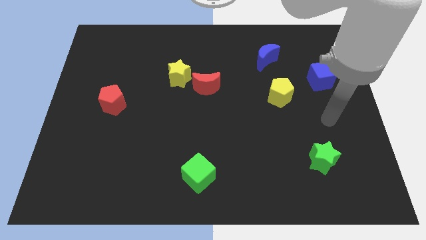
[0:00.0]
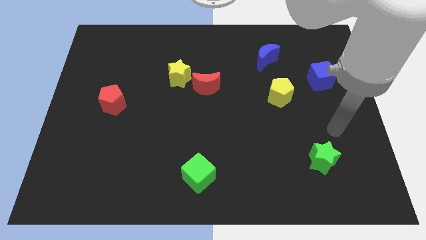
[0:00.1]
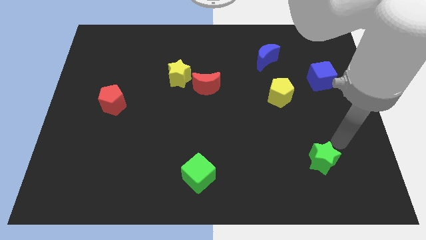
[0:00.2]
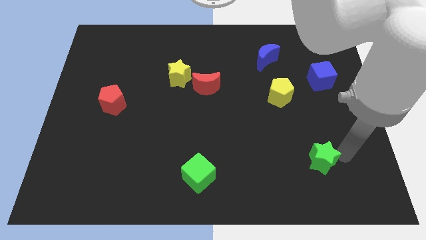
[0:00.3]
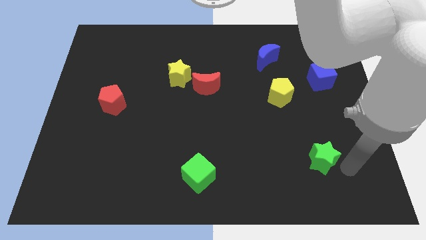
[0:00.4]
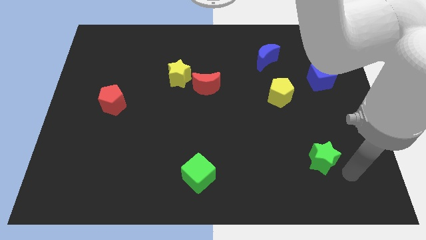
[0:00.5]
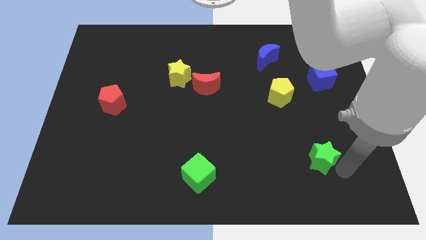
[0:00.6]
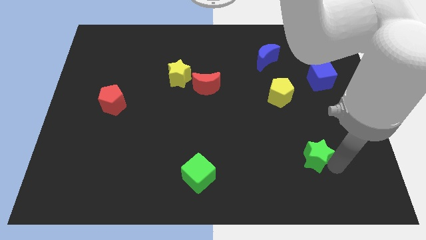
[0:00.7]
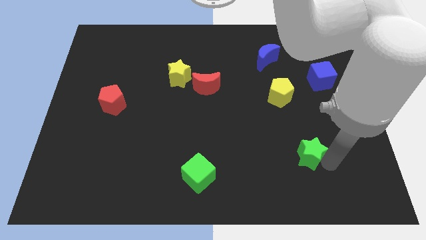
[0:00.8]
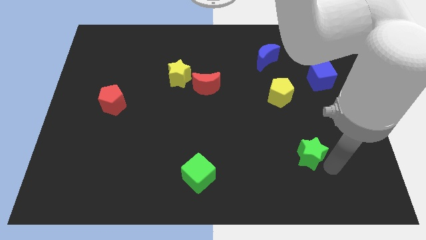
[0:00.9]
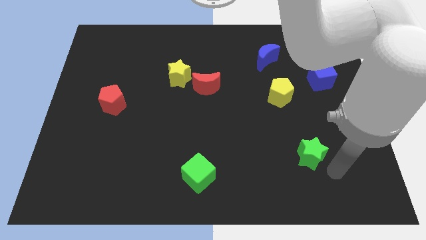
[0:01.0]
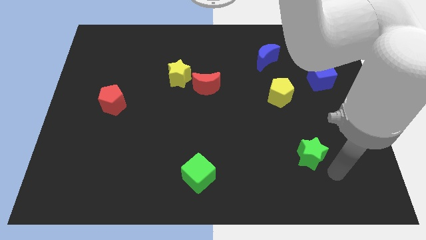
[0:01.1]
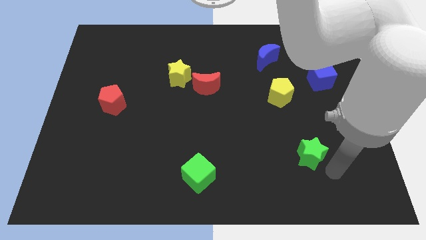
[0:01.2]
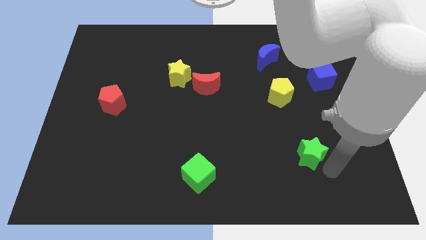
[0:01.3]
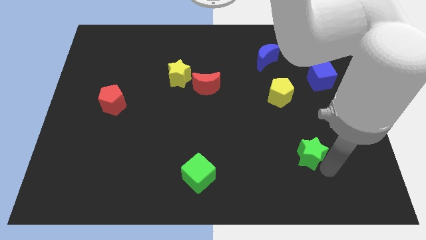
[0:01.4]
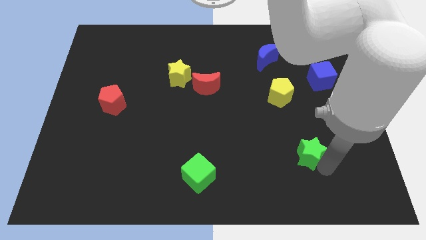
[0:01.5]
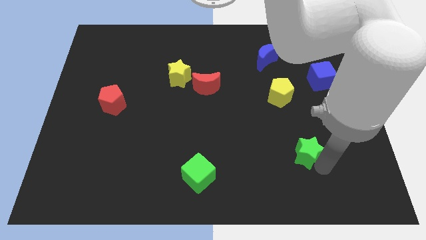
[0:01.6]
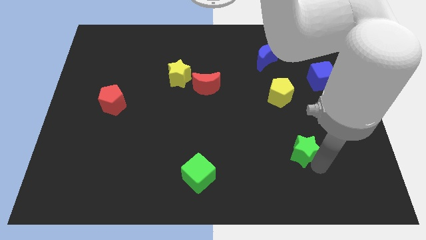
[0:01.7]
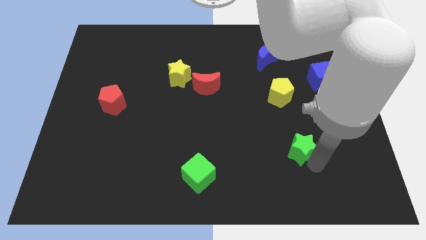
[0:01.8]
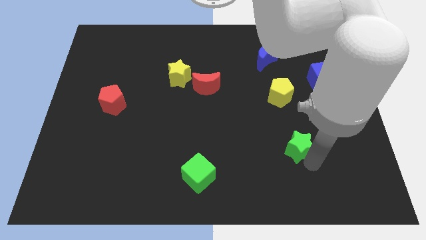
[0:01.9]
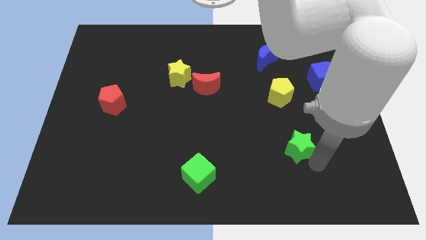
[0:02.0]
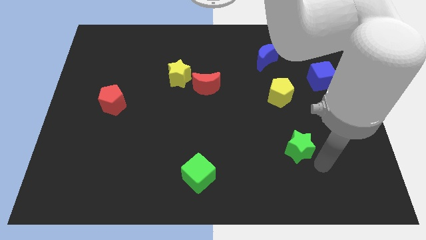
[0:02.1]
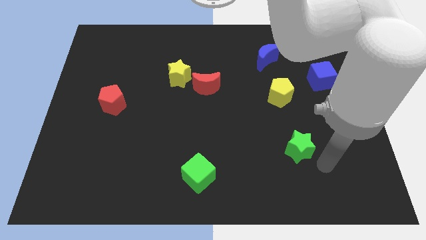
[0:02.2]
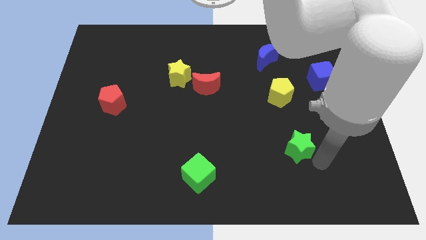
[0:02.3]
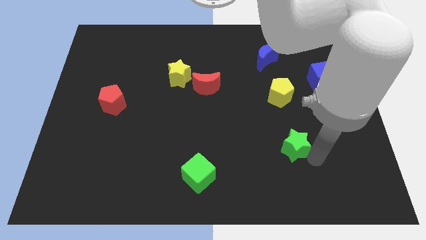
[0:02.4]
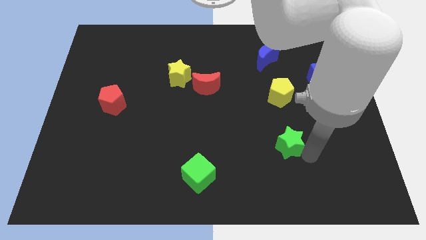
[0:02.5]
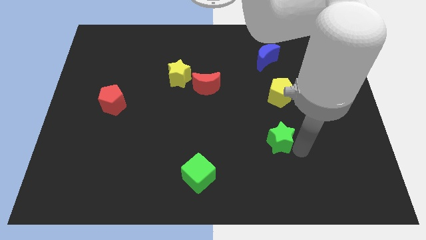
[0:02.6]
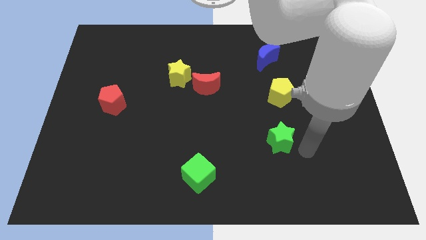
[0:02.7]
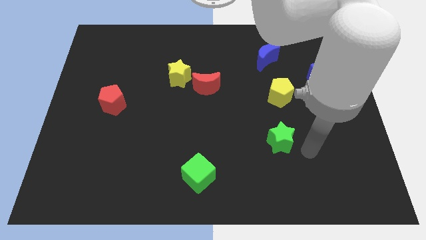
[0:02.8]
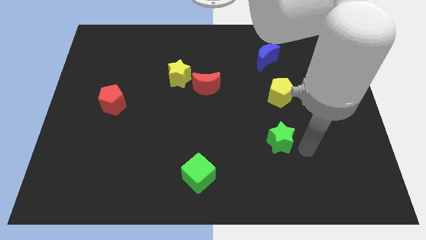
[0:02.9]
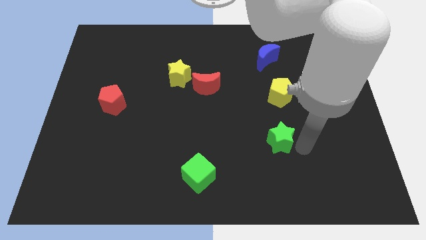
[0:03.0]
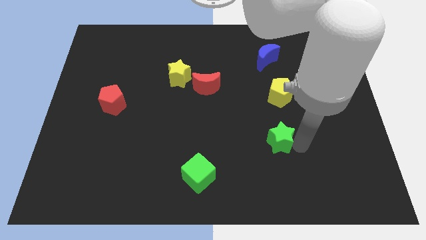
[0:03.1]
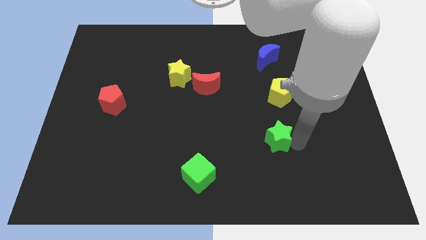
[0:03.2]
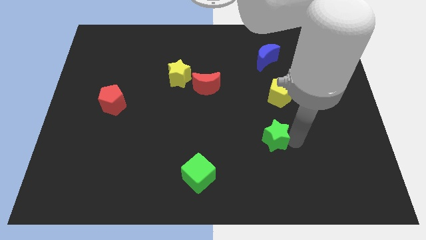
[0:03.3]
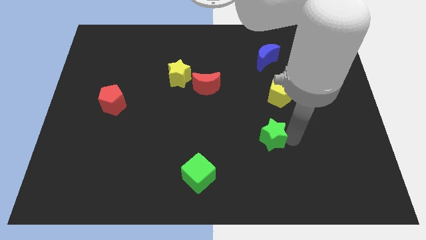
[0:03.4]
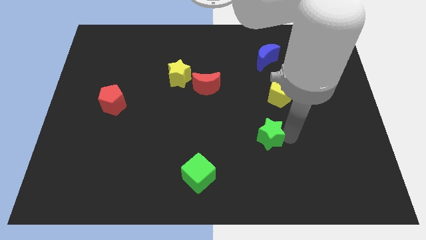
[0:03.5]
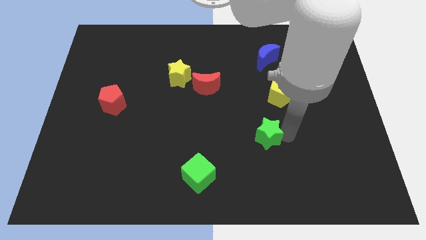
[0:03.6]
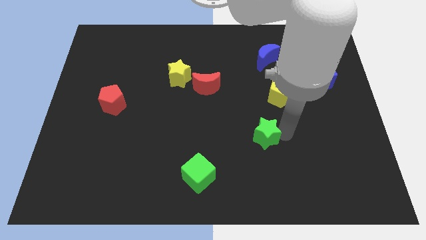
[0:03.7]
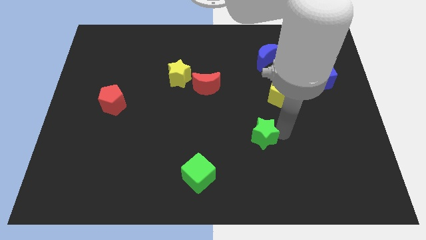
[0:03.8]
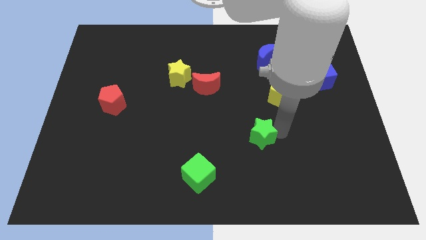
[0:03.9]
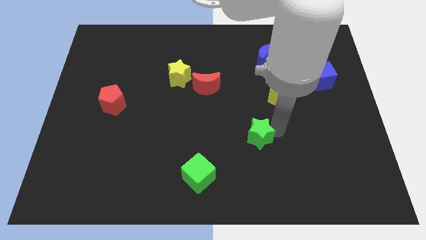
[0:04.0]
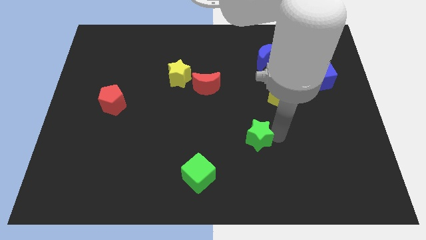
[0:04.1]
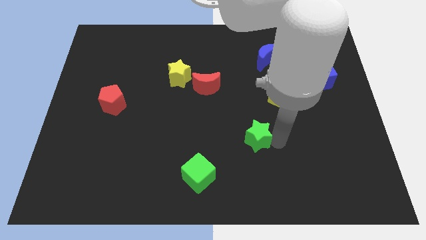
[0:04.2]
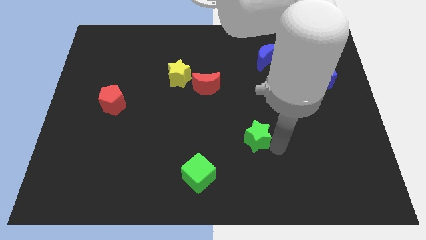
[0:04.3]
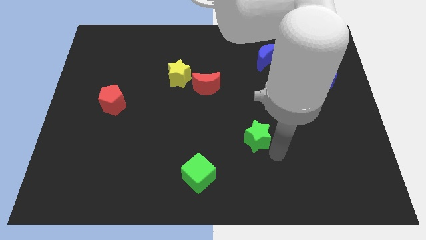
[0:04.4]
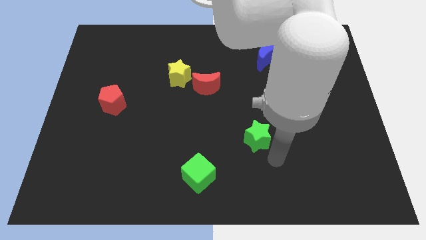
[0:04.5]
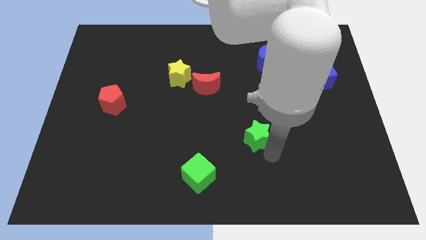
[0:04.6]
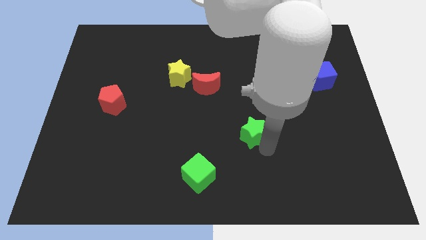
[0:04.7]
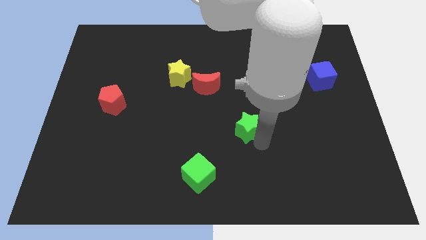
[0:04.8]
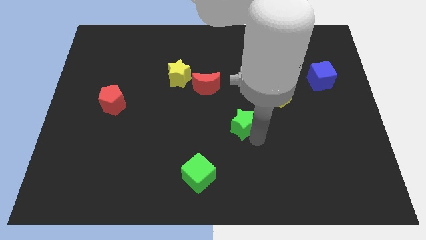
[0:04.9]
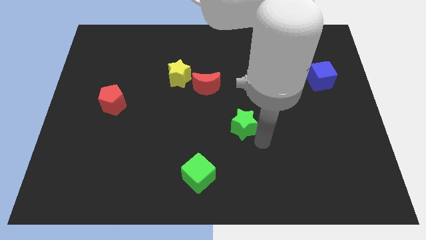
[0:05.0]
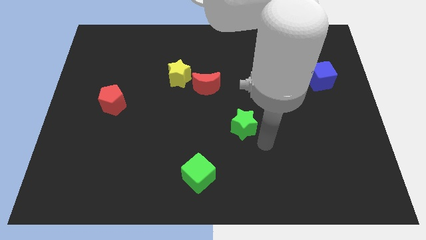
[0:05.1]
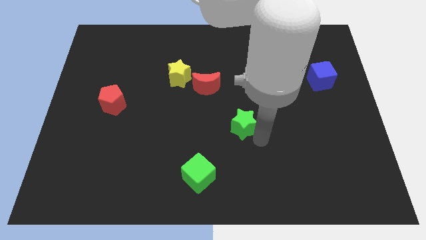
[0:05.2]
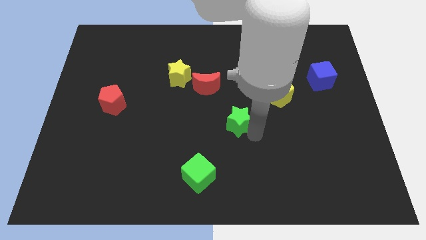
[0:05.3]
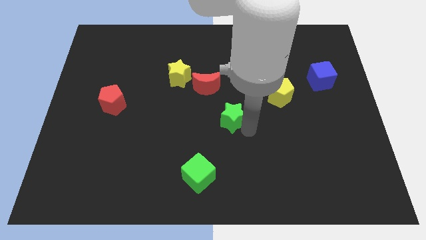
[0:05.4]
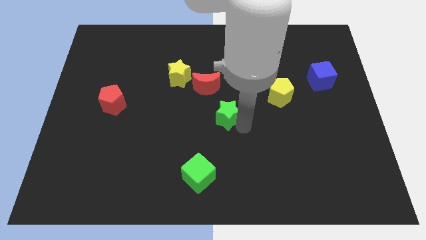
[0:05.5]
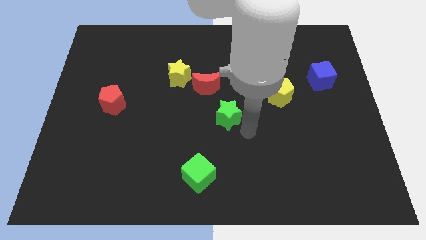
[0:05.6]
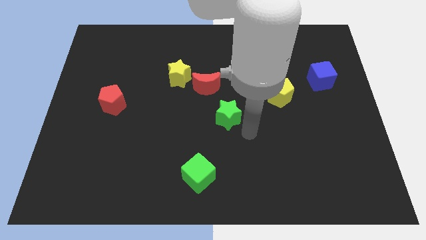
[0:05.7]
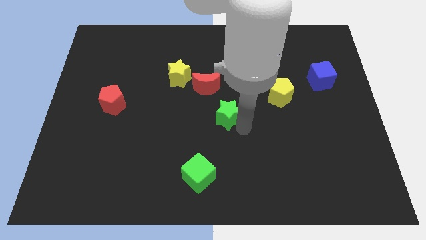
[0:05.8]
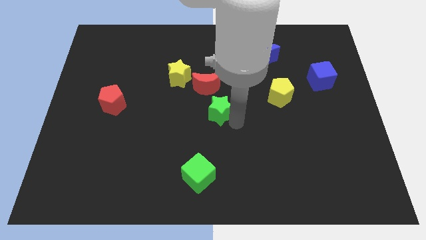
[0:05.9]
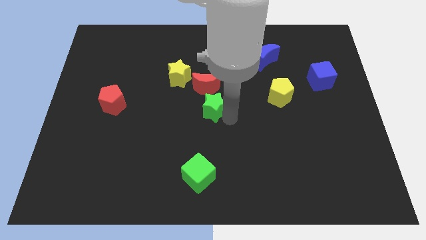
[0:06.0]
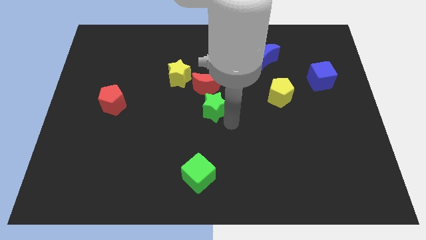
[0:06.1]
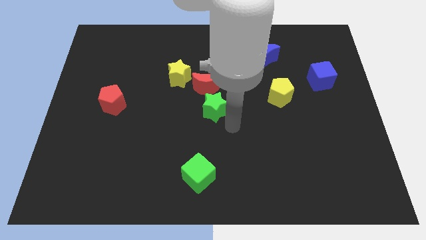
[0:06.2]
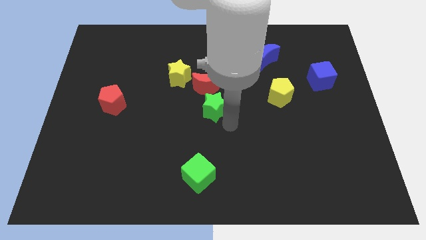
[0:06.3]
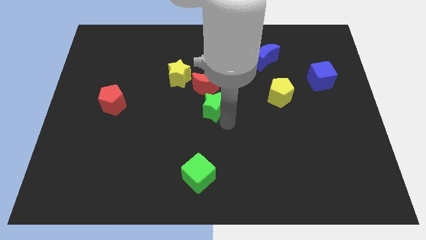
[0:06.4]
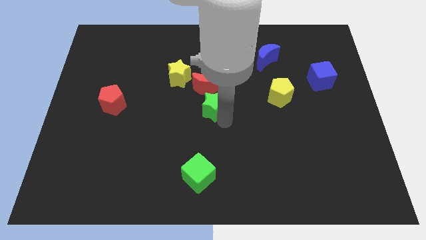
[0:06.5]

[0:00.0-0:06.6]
push the green star to the bottom right of the yellow star
